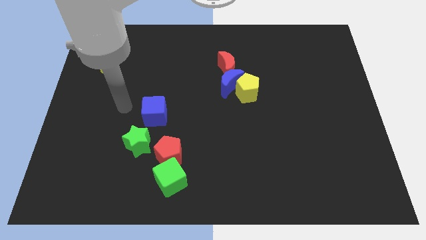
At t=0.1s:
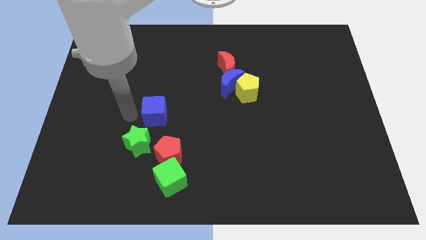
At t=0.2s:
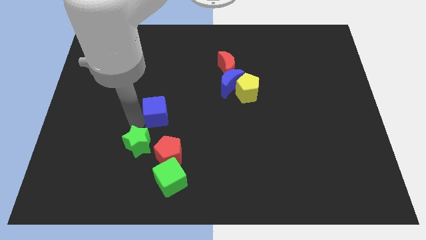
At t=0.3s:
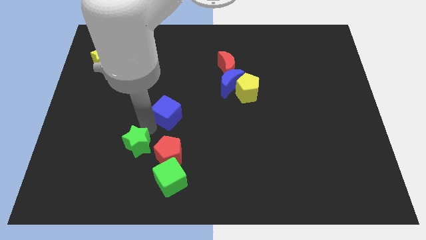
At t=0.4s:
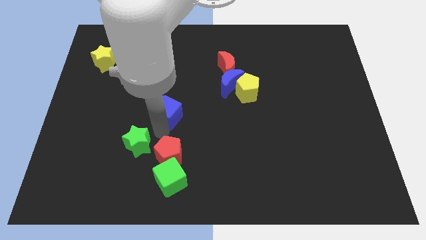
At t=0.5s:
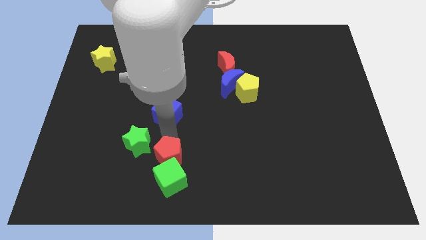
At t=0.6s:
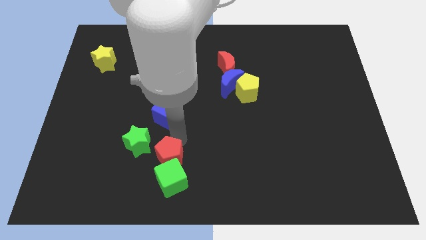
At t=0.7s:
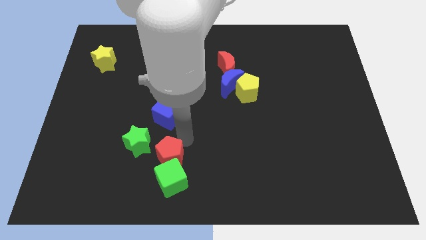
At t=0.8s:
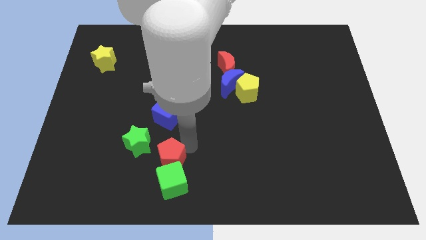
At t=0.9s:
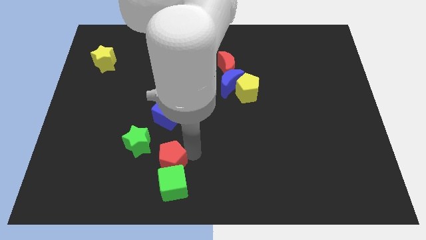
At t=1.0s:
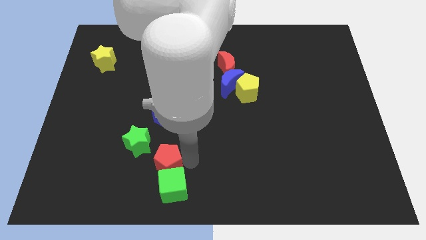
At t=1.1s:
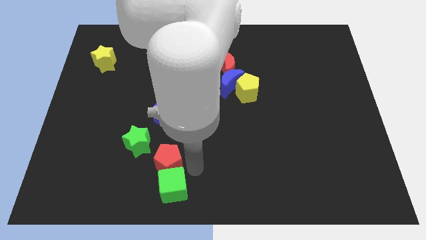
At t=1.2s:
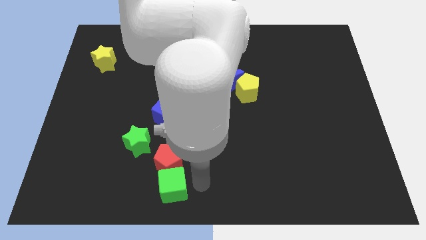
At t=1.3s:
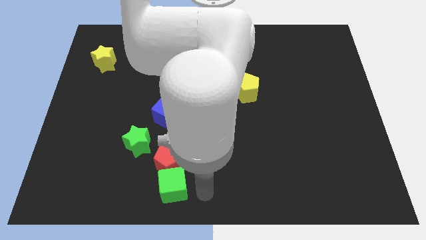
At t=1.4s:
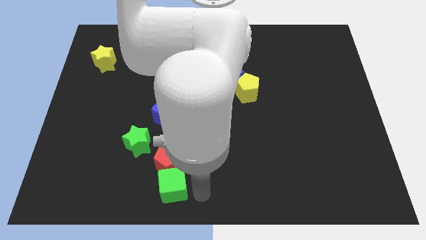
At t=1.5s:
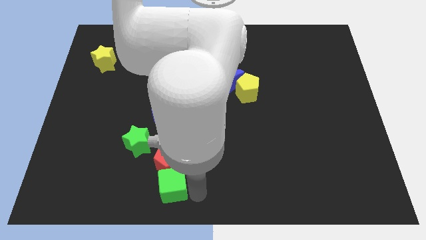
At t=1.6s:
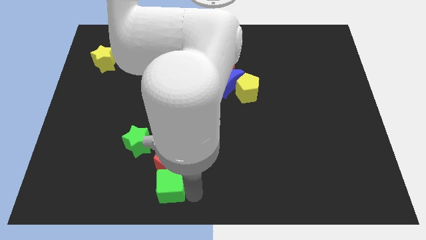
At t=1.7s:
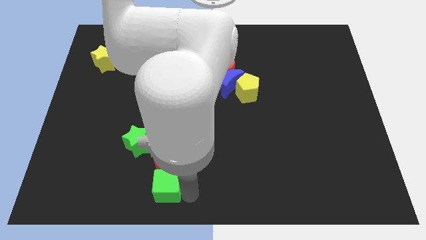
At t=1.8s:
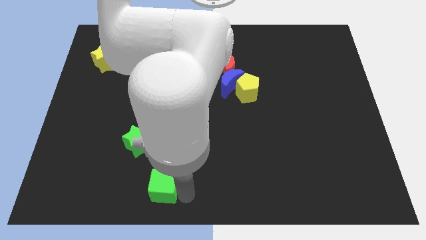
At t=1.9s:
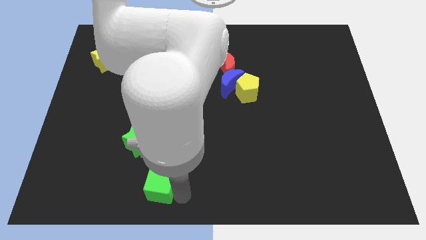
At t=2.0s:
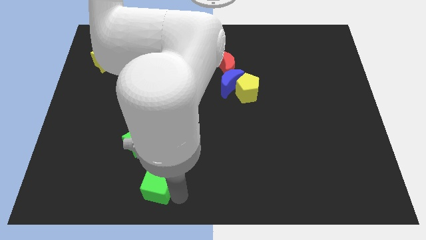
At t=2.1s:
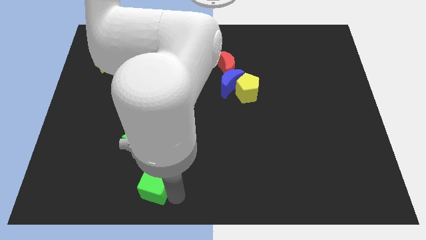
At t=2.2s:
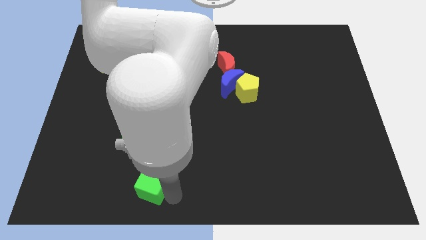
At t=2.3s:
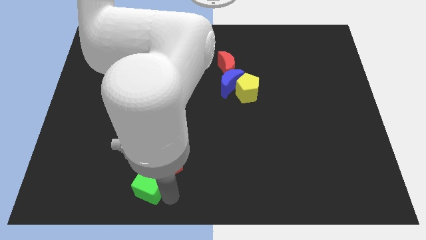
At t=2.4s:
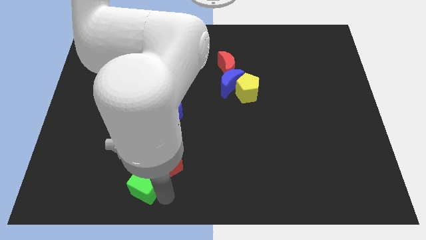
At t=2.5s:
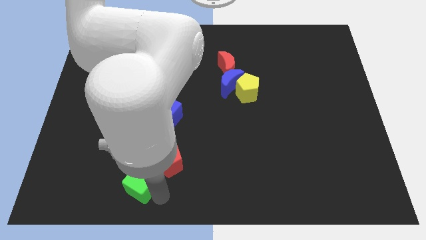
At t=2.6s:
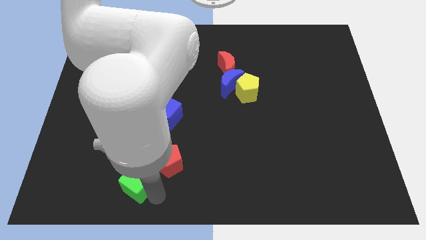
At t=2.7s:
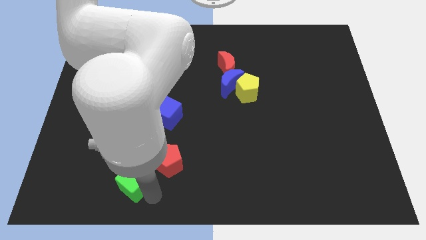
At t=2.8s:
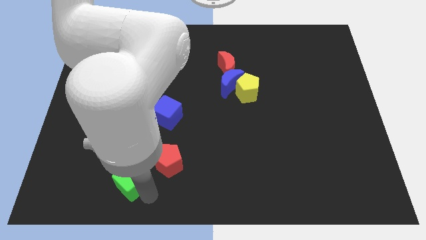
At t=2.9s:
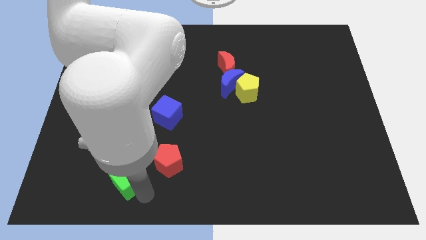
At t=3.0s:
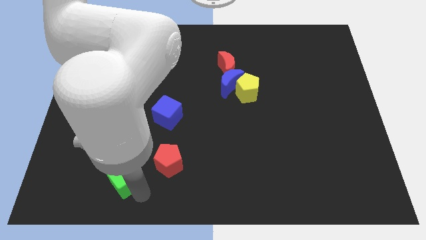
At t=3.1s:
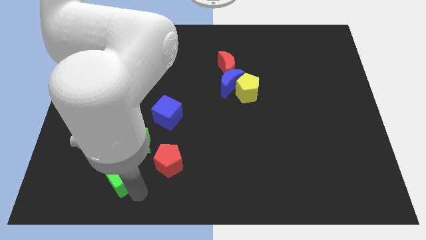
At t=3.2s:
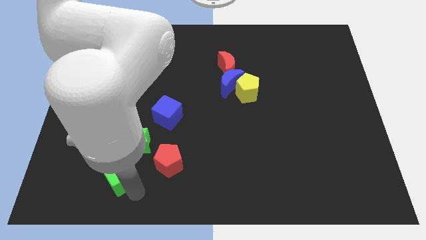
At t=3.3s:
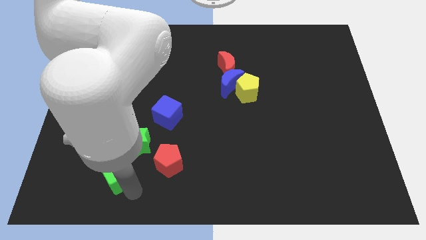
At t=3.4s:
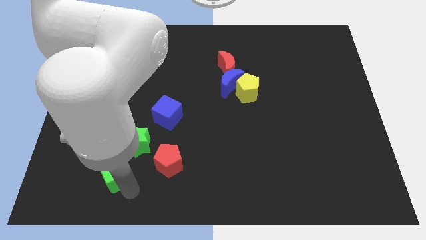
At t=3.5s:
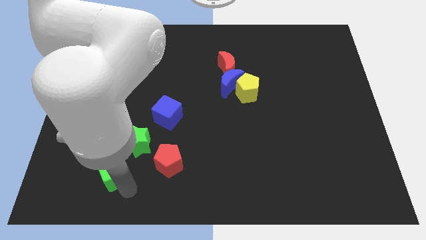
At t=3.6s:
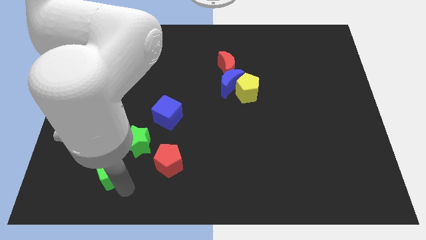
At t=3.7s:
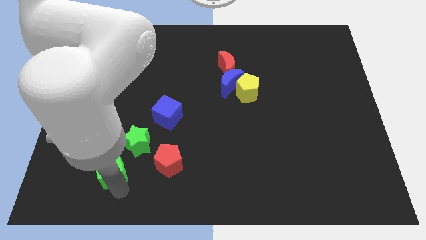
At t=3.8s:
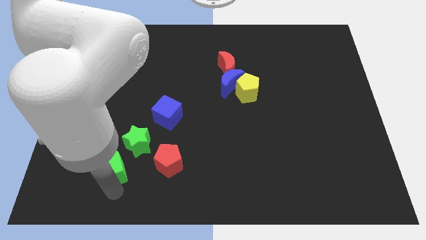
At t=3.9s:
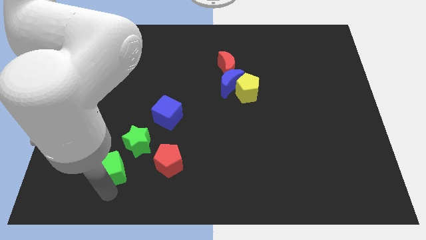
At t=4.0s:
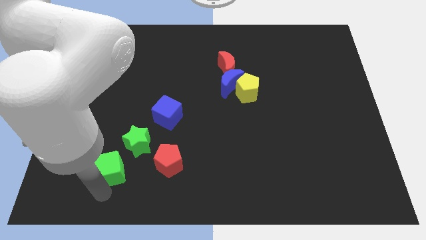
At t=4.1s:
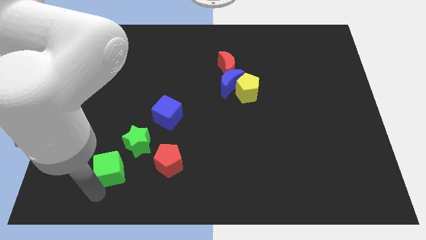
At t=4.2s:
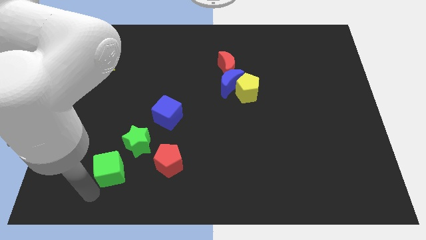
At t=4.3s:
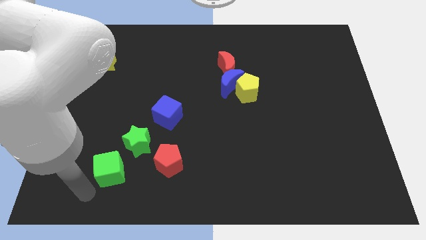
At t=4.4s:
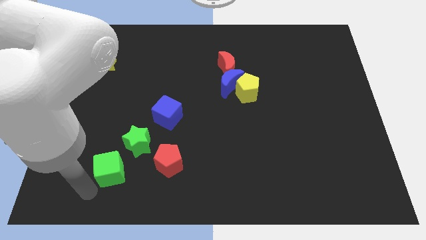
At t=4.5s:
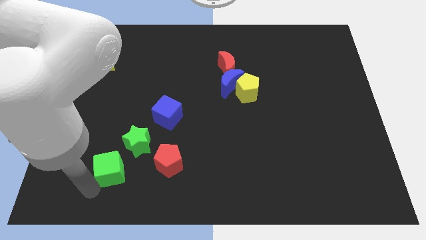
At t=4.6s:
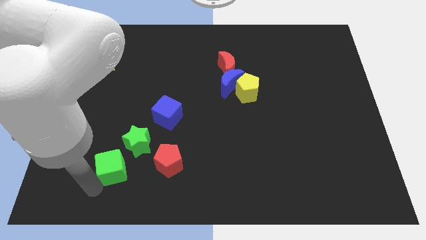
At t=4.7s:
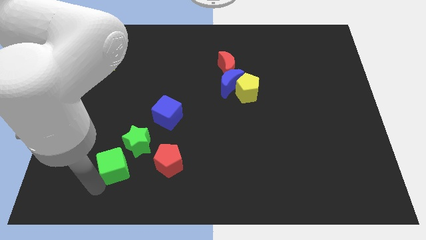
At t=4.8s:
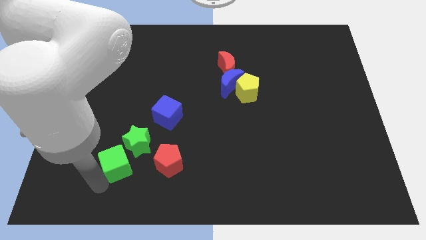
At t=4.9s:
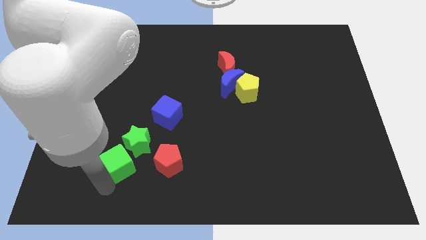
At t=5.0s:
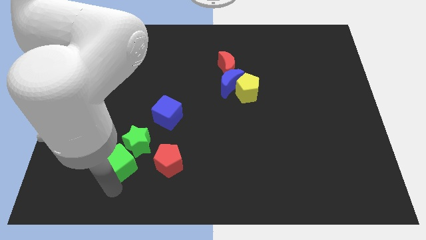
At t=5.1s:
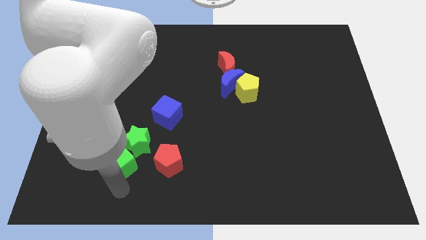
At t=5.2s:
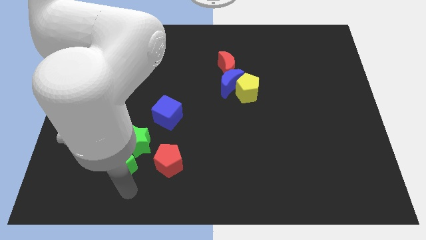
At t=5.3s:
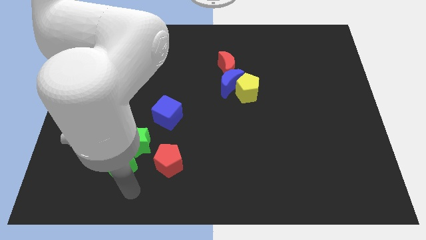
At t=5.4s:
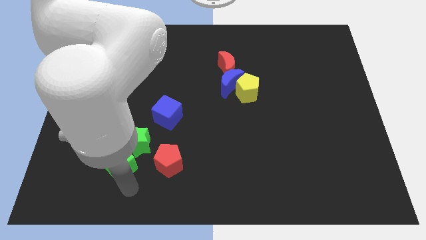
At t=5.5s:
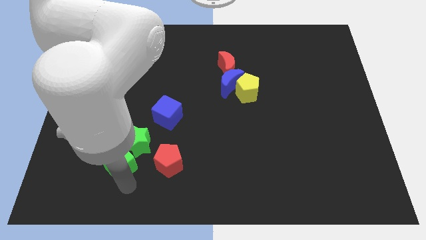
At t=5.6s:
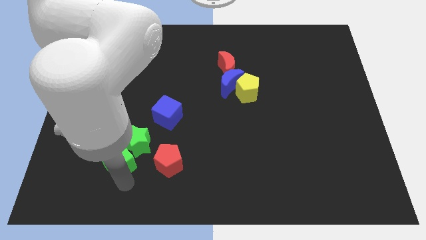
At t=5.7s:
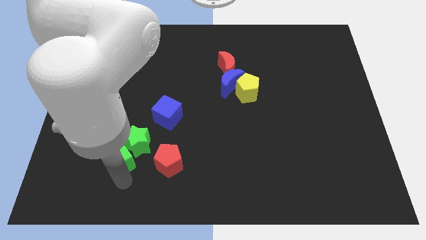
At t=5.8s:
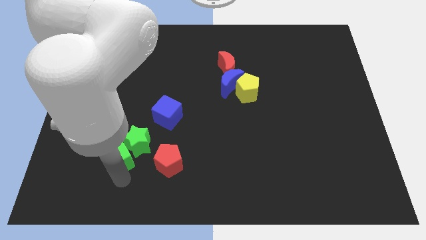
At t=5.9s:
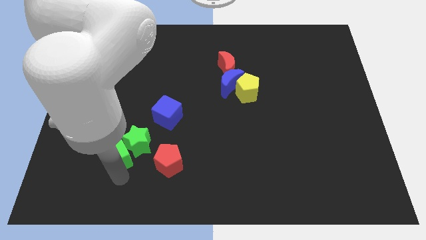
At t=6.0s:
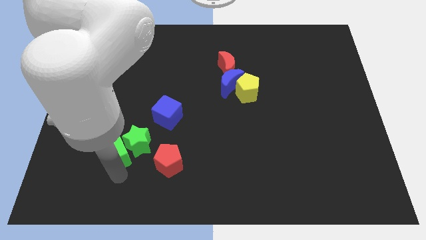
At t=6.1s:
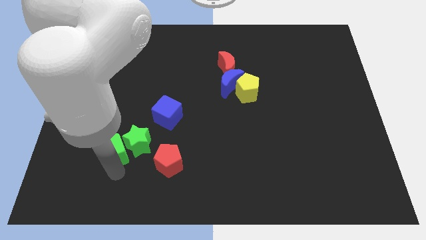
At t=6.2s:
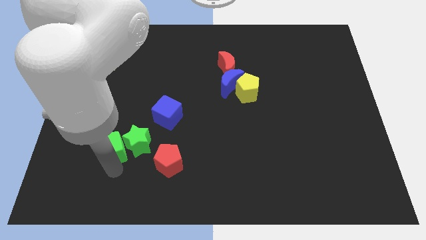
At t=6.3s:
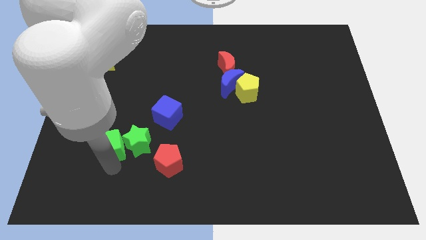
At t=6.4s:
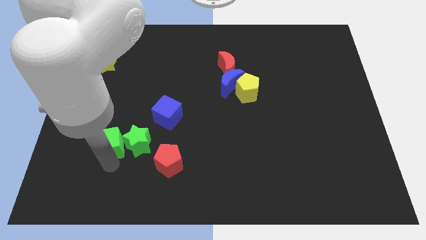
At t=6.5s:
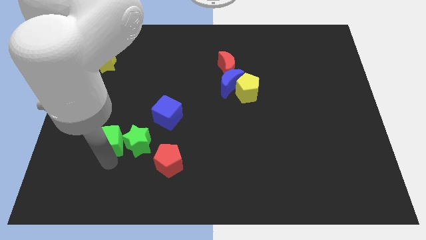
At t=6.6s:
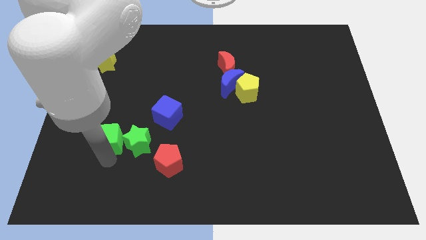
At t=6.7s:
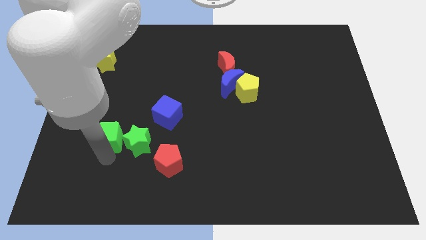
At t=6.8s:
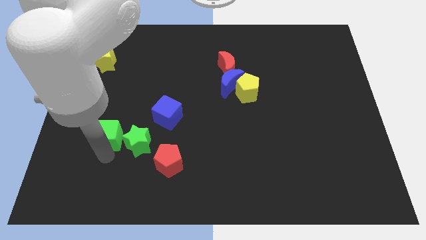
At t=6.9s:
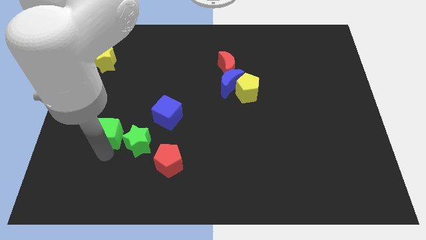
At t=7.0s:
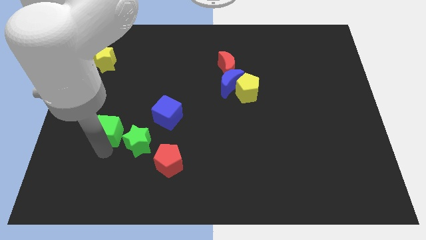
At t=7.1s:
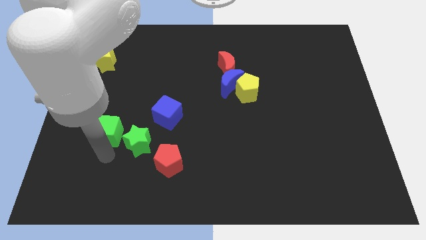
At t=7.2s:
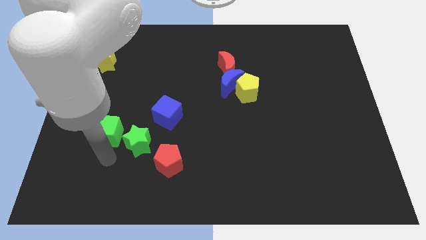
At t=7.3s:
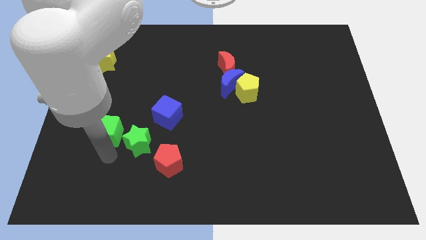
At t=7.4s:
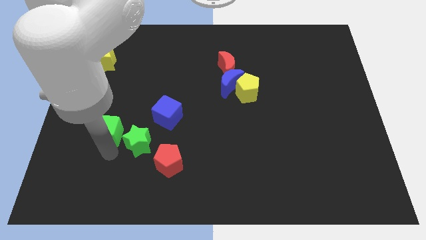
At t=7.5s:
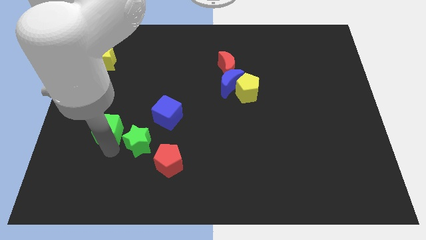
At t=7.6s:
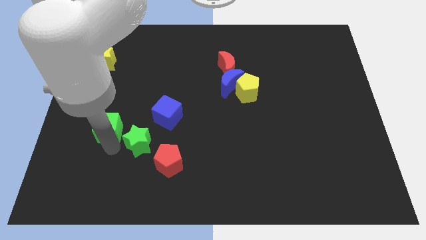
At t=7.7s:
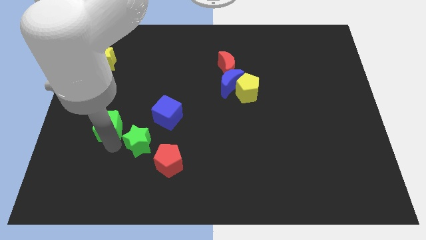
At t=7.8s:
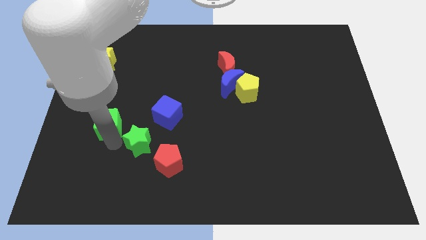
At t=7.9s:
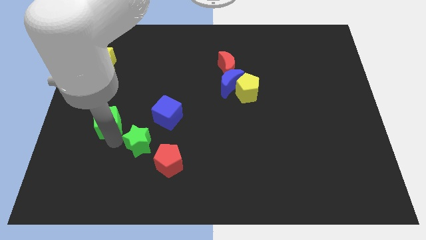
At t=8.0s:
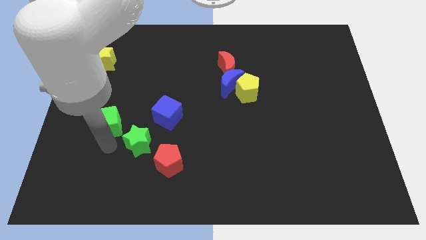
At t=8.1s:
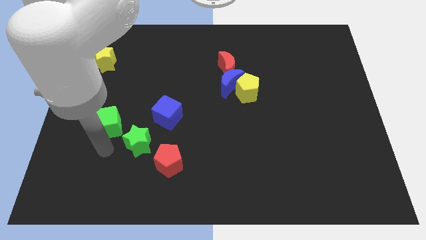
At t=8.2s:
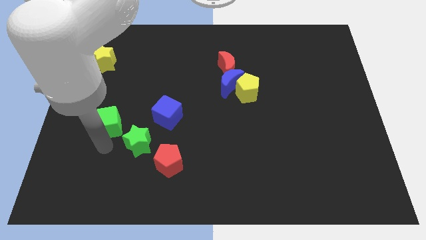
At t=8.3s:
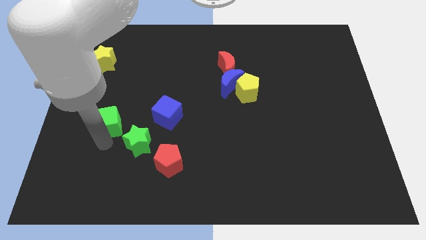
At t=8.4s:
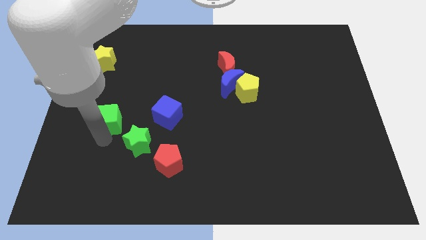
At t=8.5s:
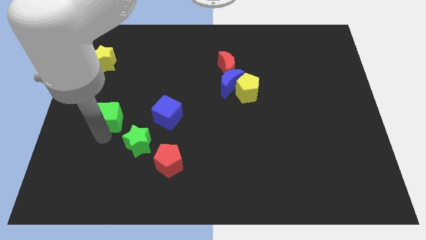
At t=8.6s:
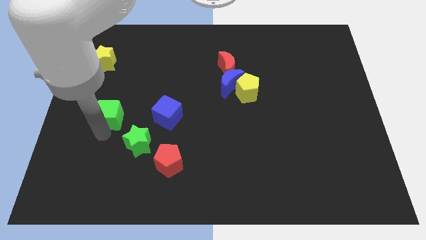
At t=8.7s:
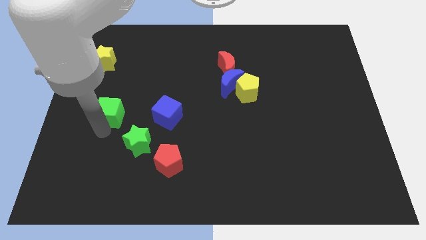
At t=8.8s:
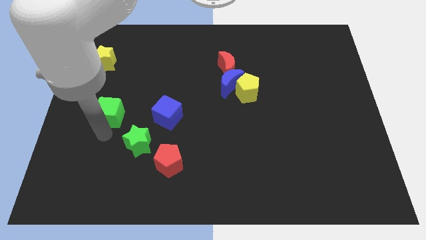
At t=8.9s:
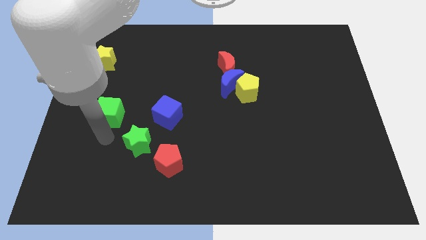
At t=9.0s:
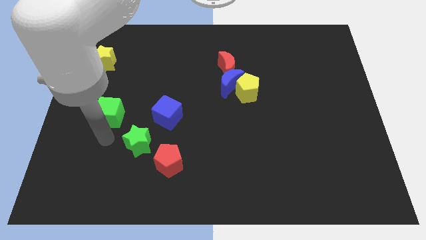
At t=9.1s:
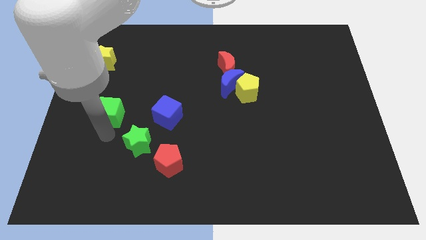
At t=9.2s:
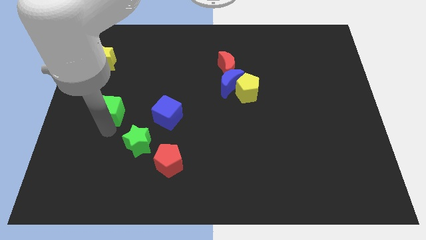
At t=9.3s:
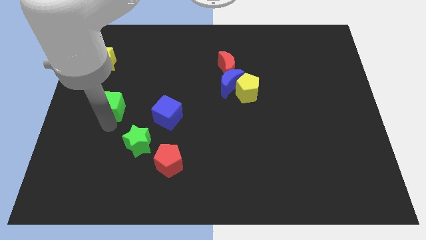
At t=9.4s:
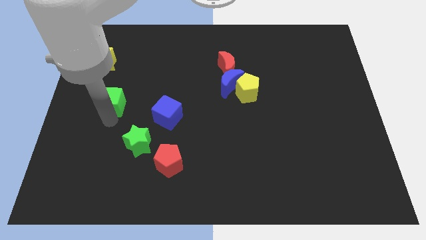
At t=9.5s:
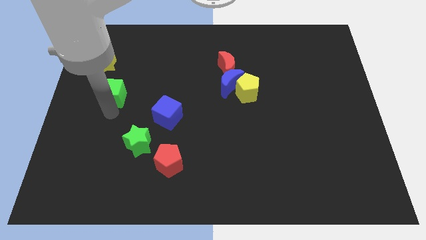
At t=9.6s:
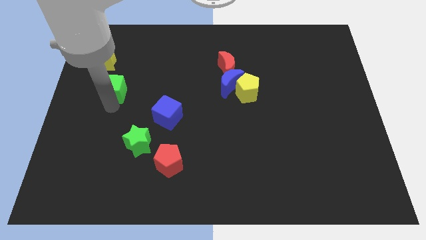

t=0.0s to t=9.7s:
move the green cube diagonally down and to the right of the yellow star
